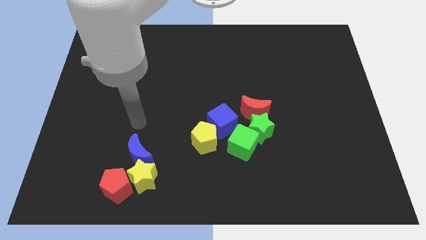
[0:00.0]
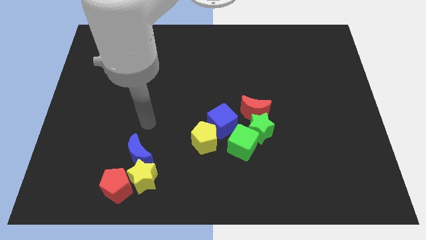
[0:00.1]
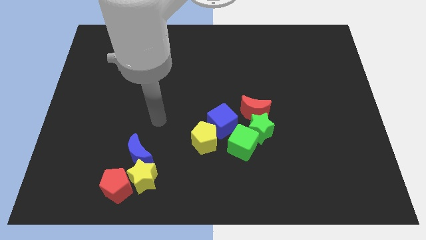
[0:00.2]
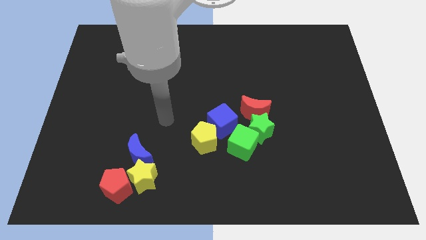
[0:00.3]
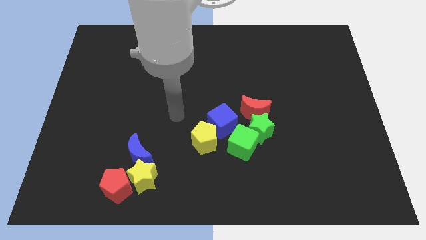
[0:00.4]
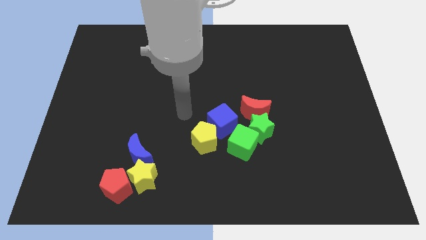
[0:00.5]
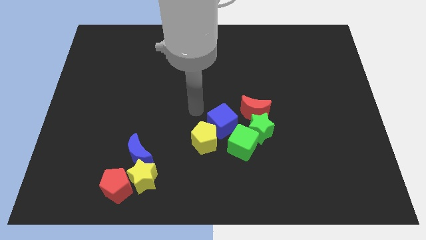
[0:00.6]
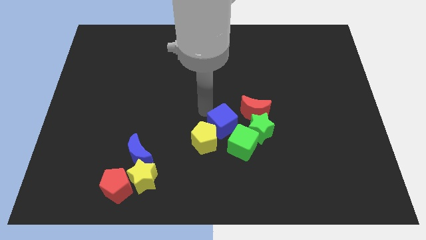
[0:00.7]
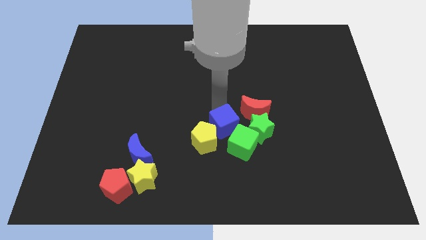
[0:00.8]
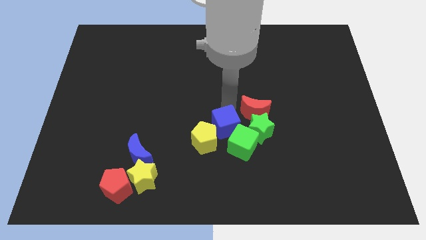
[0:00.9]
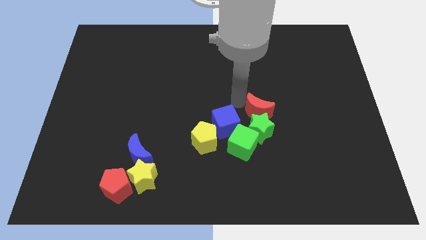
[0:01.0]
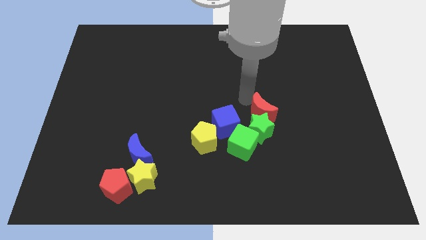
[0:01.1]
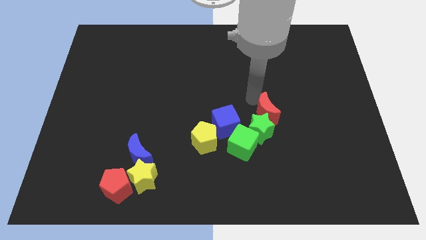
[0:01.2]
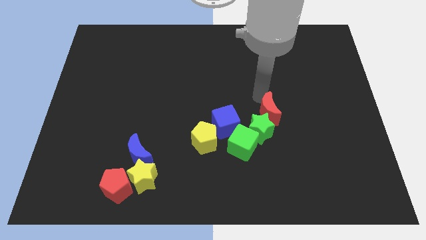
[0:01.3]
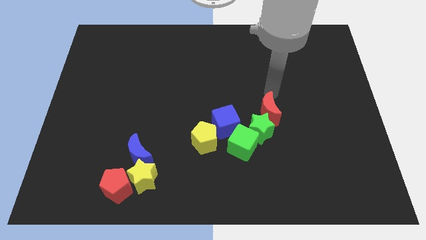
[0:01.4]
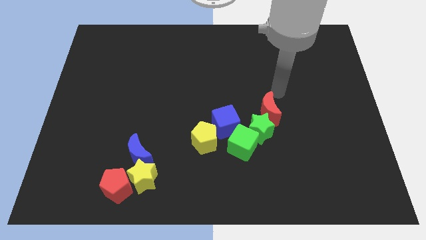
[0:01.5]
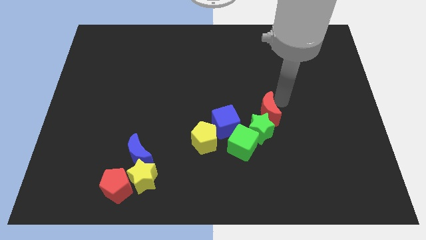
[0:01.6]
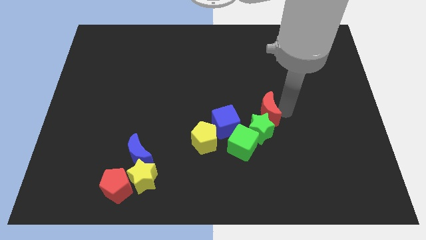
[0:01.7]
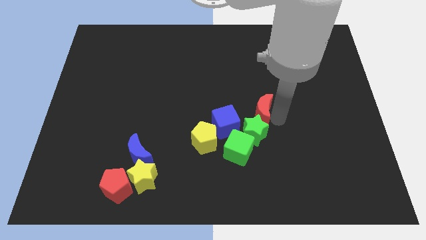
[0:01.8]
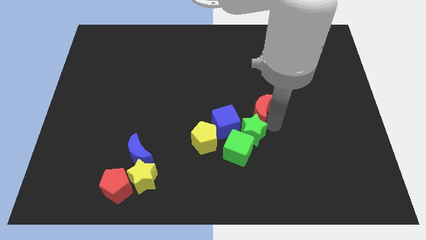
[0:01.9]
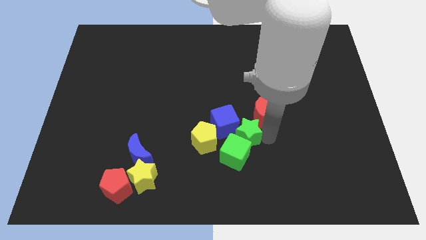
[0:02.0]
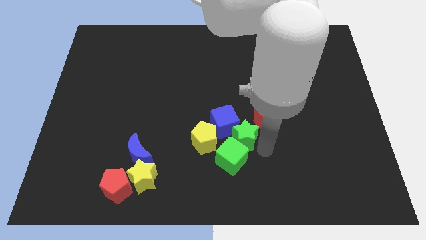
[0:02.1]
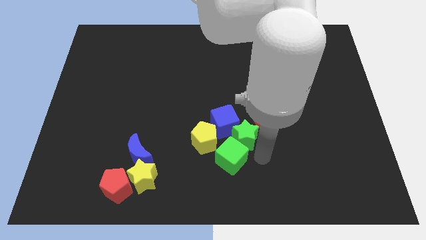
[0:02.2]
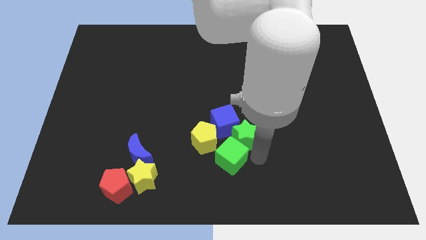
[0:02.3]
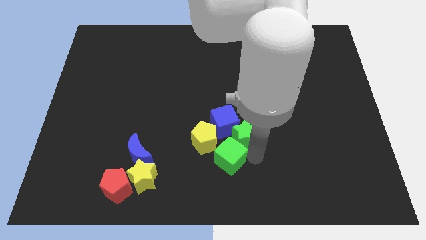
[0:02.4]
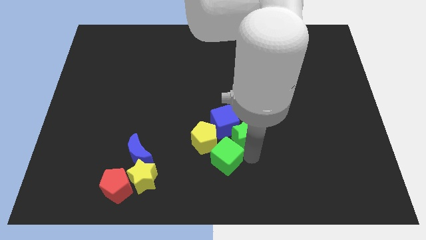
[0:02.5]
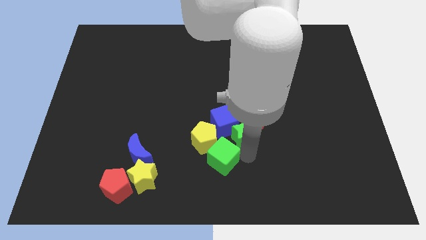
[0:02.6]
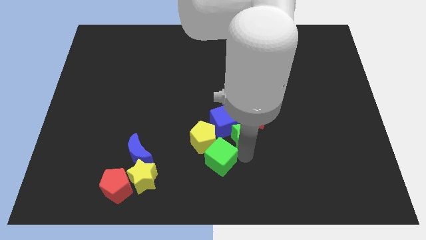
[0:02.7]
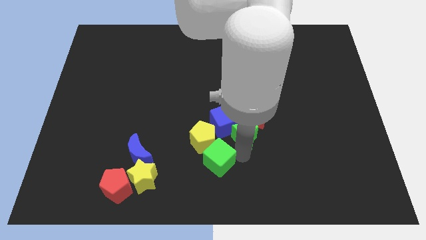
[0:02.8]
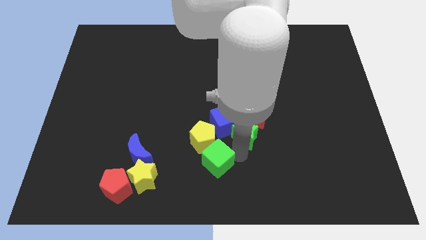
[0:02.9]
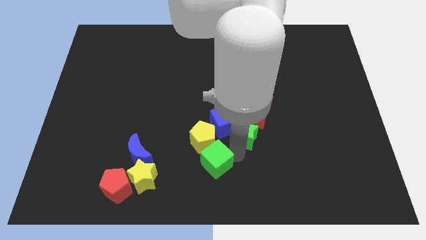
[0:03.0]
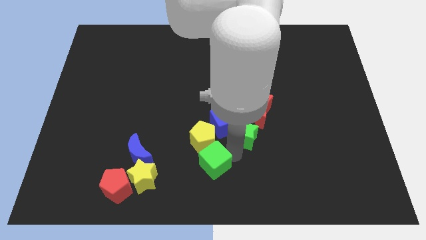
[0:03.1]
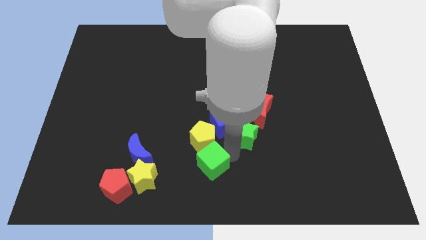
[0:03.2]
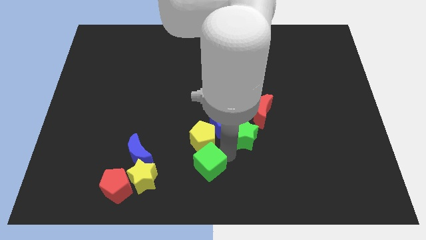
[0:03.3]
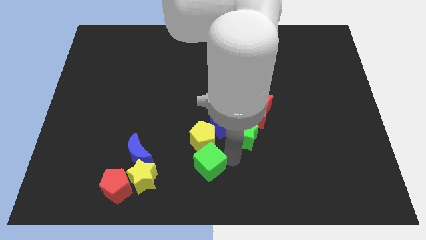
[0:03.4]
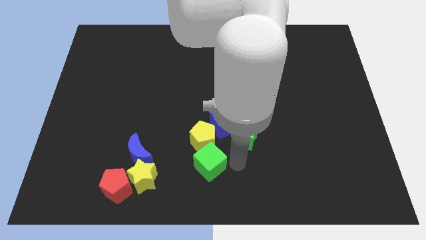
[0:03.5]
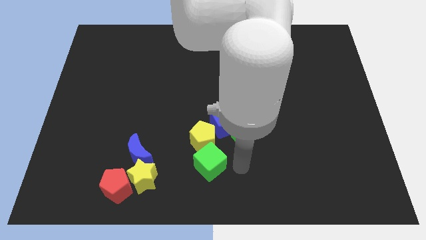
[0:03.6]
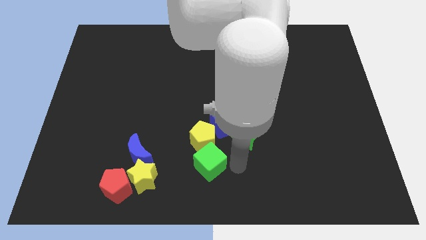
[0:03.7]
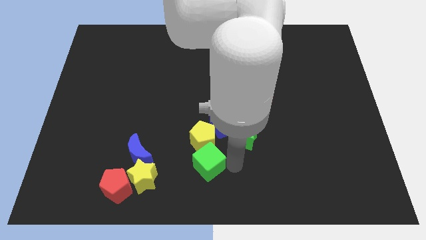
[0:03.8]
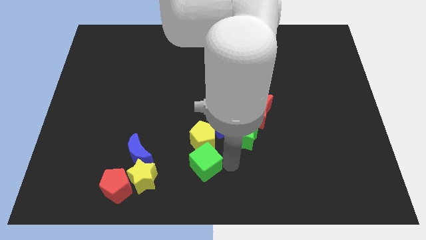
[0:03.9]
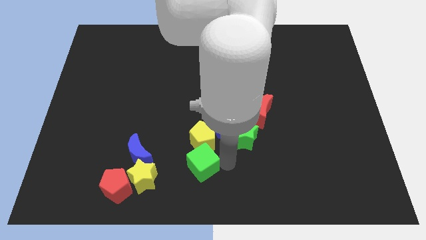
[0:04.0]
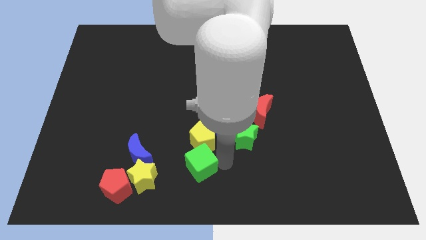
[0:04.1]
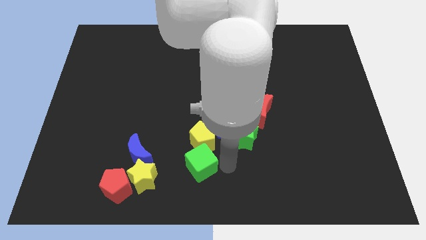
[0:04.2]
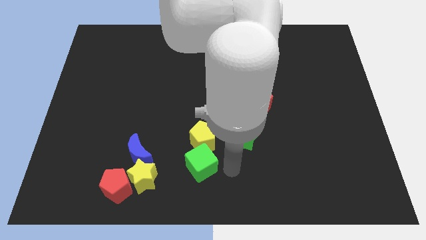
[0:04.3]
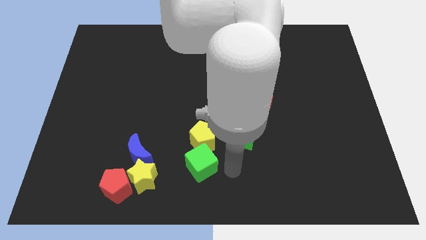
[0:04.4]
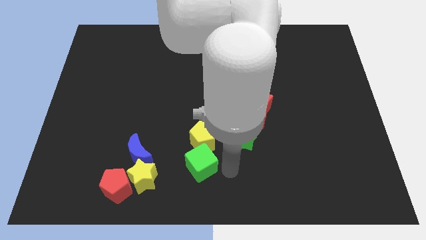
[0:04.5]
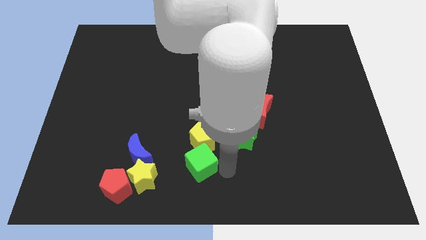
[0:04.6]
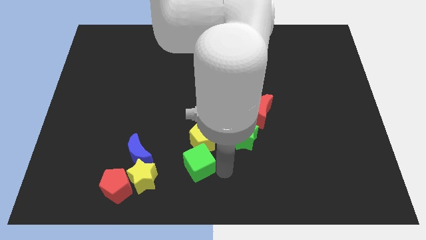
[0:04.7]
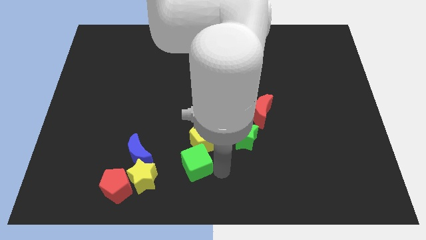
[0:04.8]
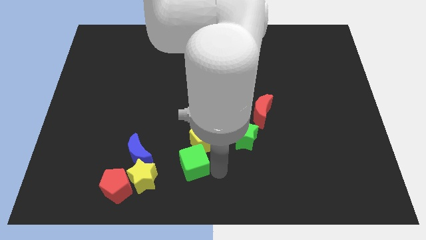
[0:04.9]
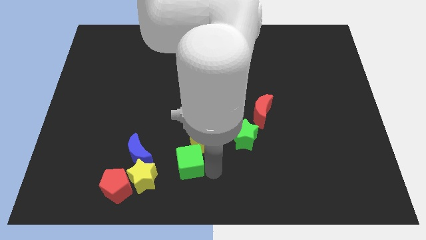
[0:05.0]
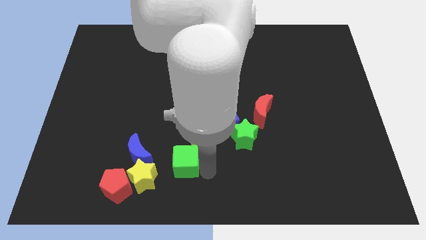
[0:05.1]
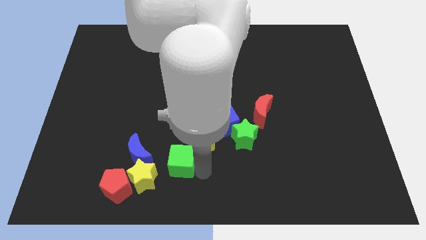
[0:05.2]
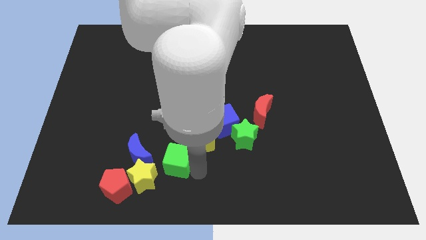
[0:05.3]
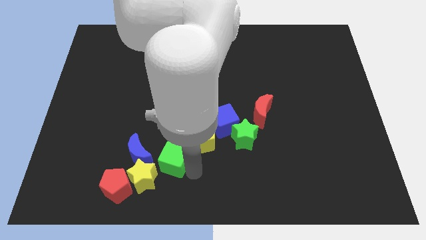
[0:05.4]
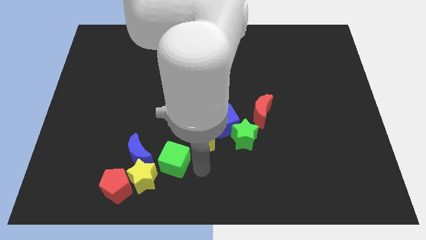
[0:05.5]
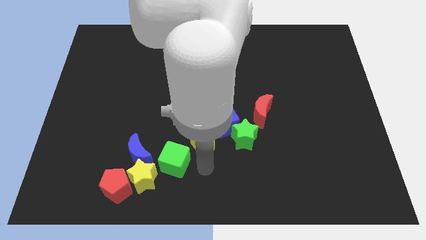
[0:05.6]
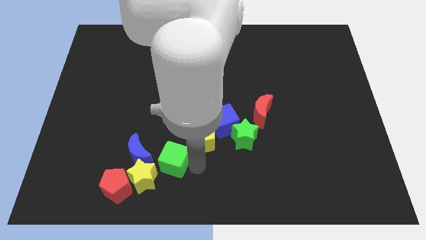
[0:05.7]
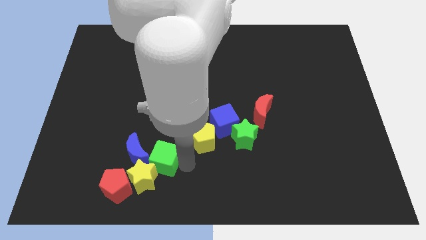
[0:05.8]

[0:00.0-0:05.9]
slide the green cube close to the blue moon

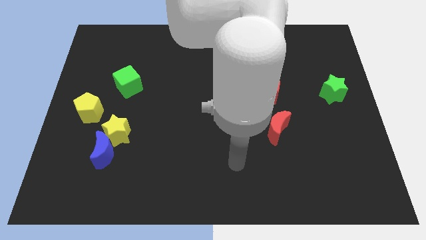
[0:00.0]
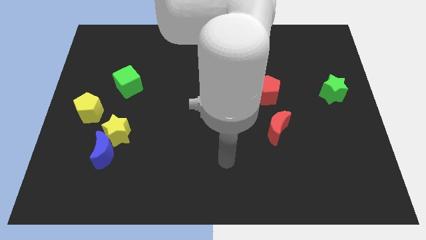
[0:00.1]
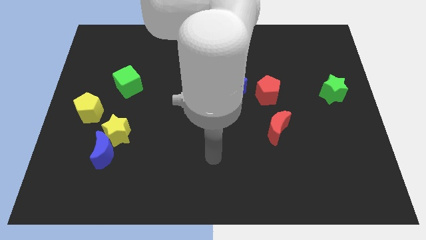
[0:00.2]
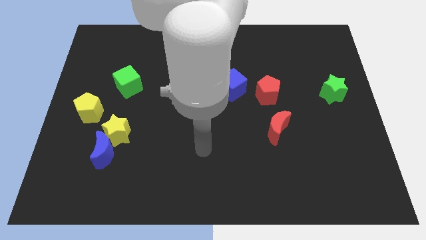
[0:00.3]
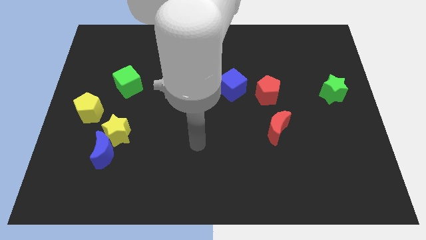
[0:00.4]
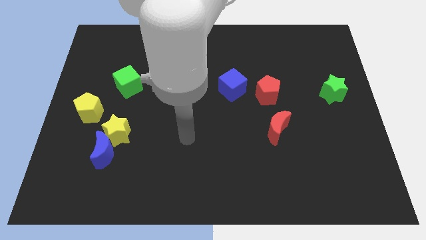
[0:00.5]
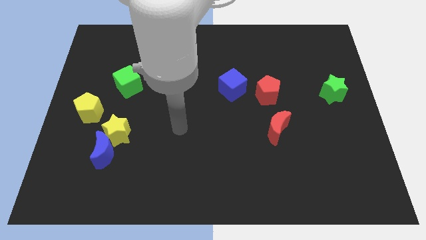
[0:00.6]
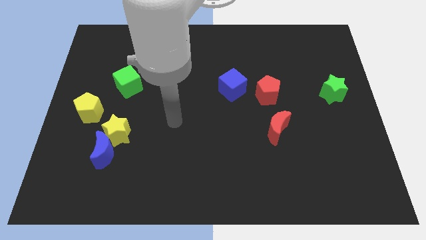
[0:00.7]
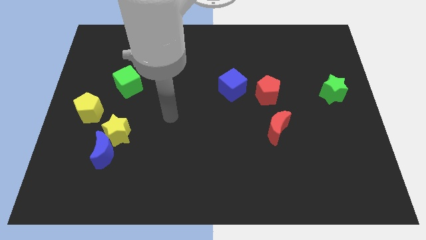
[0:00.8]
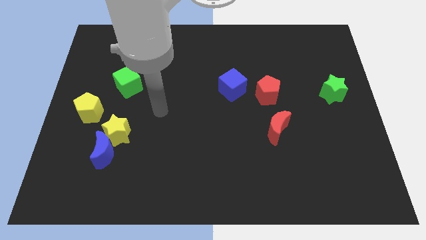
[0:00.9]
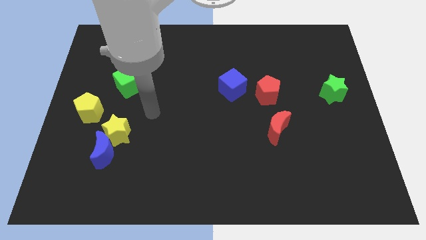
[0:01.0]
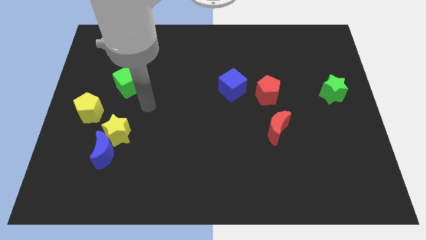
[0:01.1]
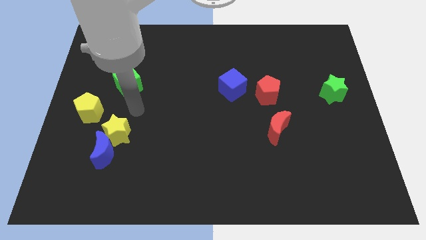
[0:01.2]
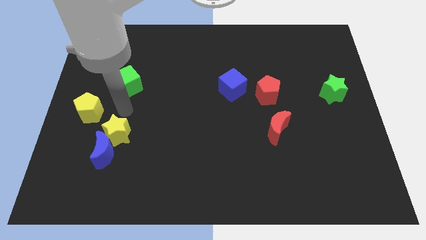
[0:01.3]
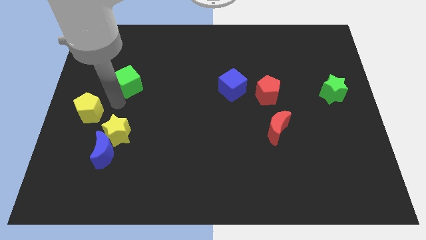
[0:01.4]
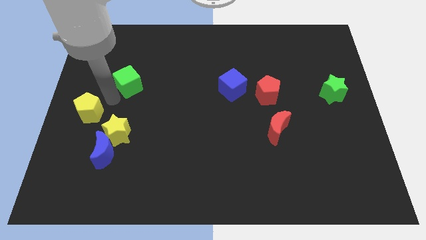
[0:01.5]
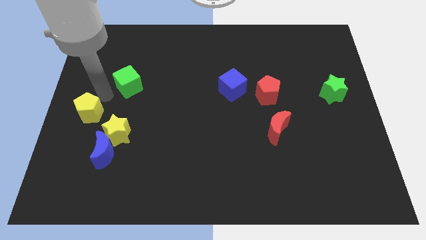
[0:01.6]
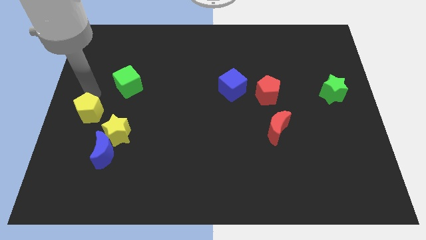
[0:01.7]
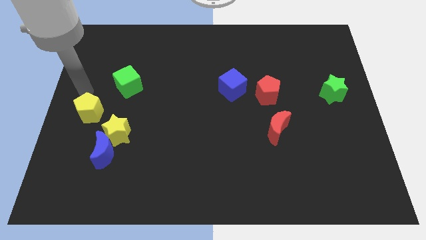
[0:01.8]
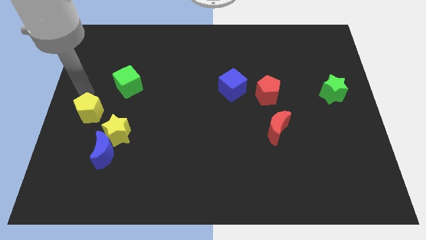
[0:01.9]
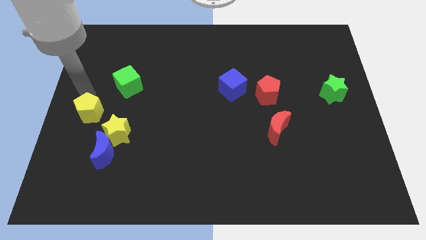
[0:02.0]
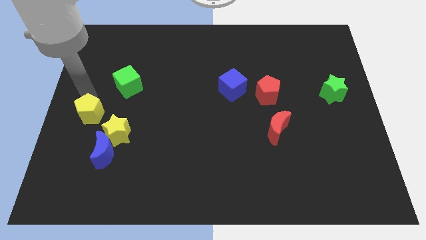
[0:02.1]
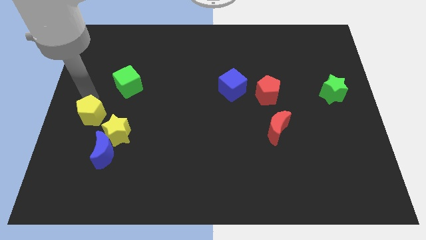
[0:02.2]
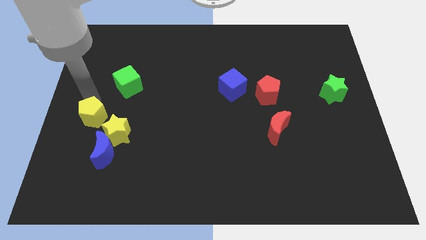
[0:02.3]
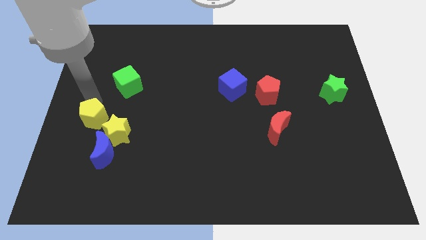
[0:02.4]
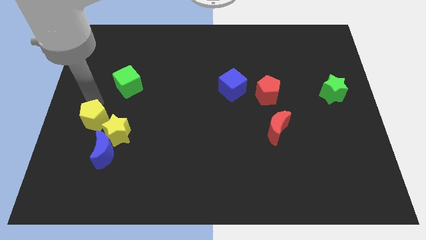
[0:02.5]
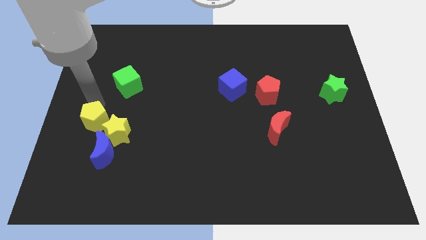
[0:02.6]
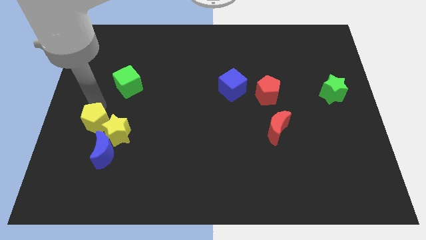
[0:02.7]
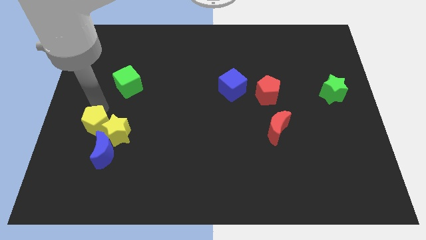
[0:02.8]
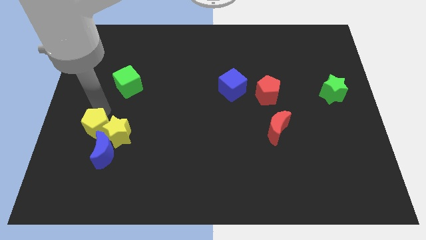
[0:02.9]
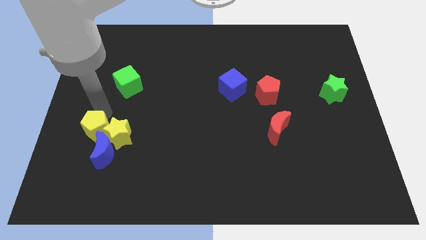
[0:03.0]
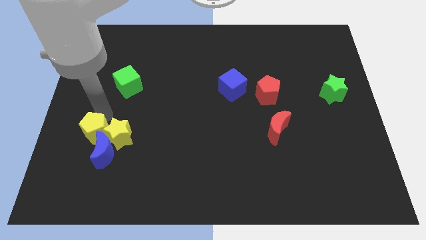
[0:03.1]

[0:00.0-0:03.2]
slide the yellow pentagon towards the blue moon
